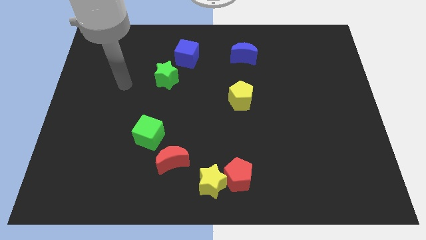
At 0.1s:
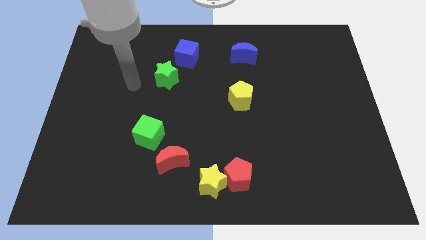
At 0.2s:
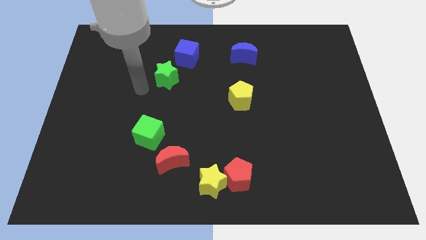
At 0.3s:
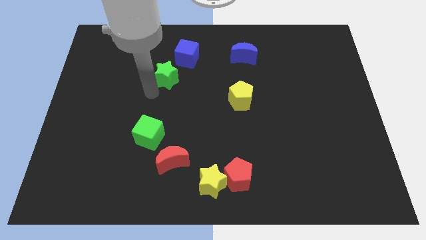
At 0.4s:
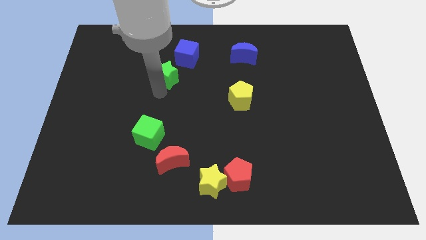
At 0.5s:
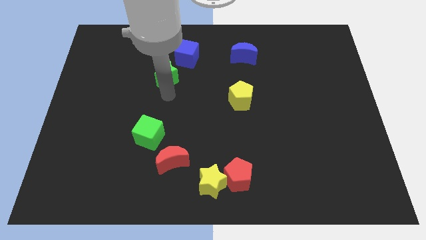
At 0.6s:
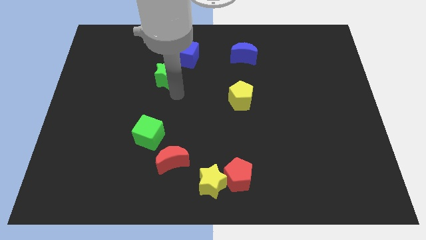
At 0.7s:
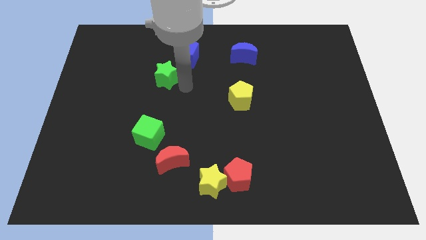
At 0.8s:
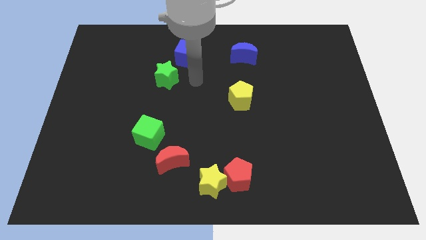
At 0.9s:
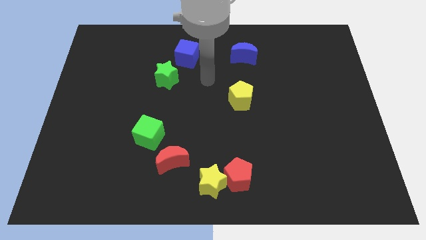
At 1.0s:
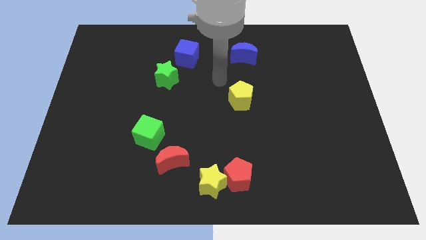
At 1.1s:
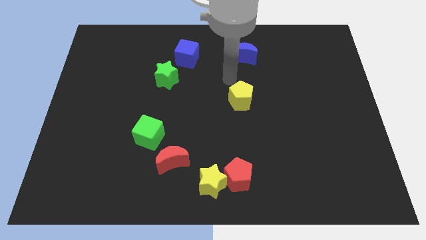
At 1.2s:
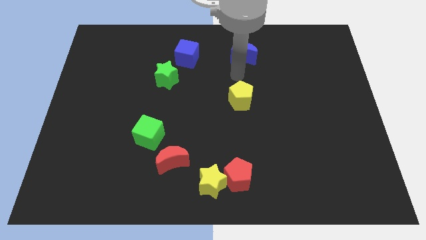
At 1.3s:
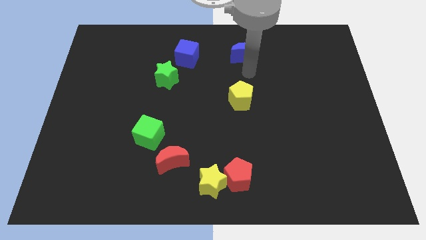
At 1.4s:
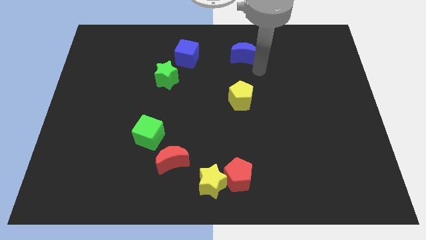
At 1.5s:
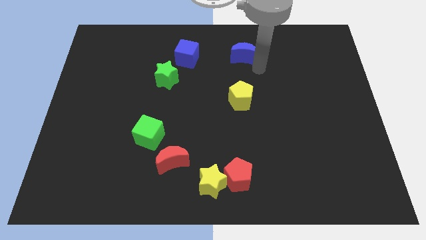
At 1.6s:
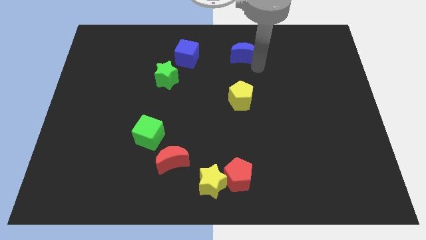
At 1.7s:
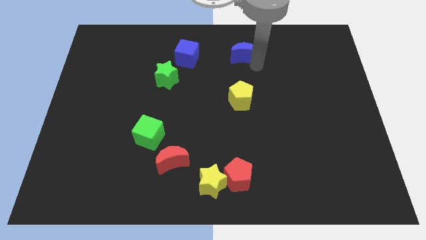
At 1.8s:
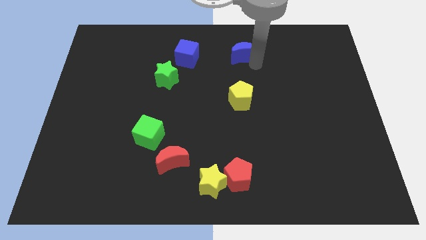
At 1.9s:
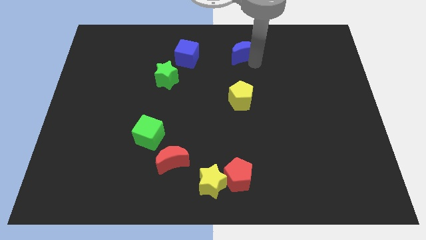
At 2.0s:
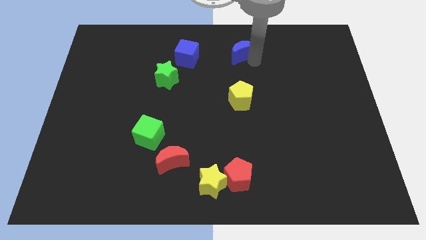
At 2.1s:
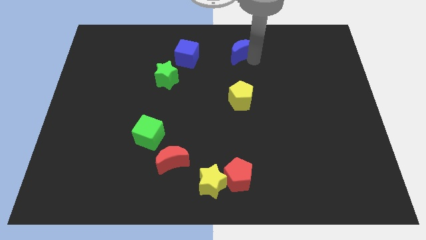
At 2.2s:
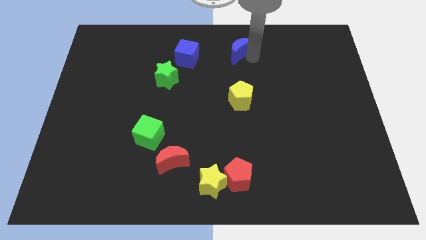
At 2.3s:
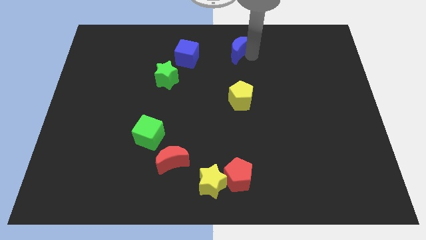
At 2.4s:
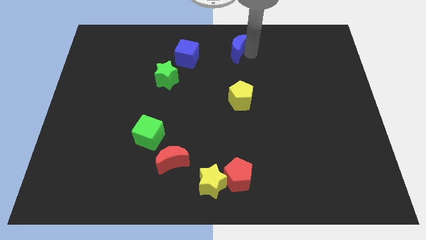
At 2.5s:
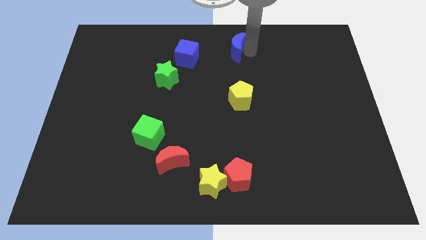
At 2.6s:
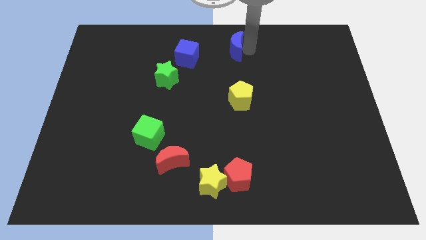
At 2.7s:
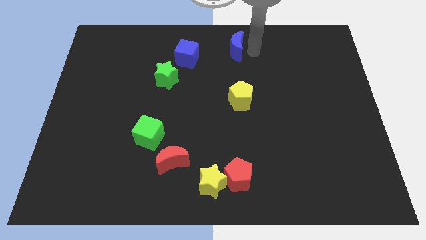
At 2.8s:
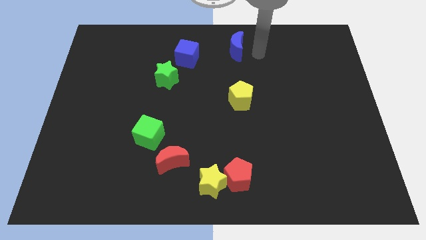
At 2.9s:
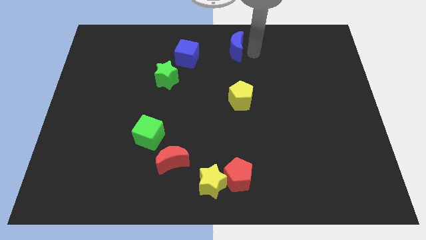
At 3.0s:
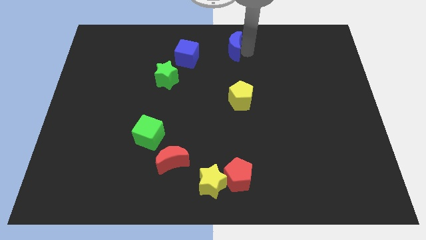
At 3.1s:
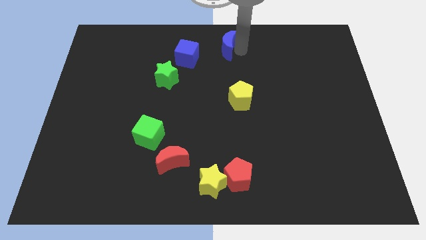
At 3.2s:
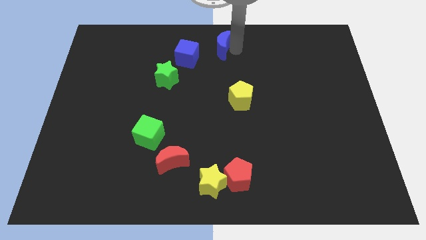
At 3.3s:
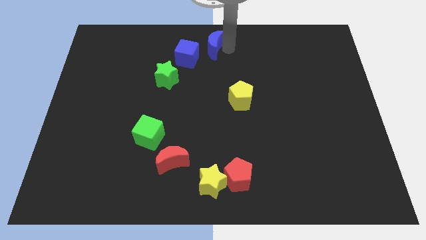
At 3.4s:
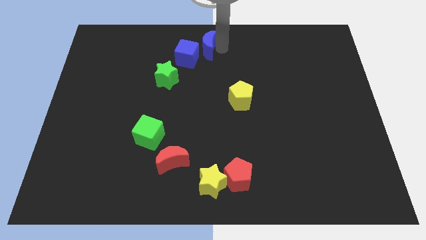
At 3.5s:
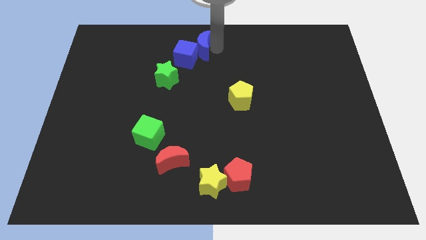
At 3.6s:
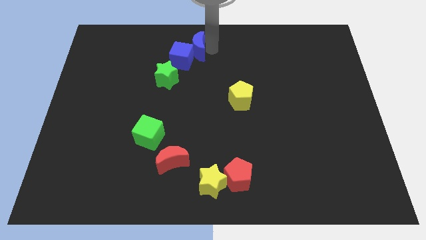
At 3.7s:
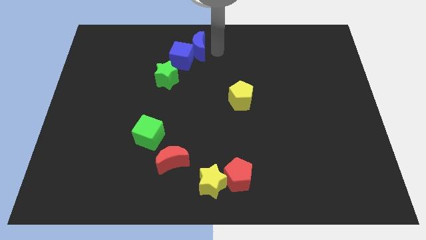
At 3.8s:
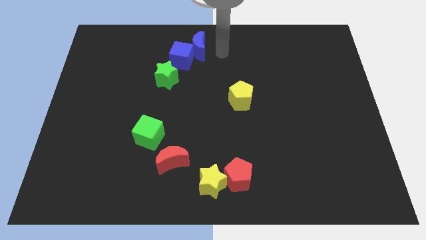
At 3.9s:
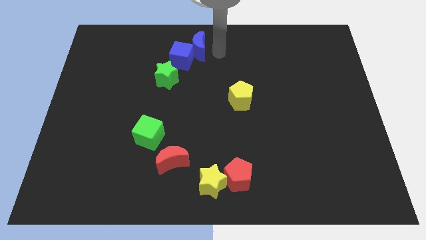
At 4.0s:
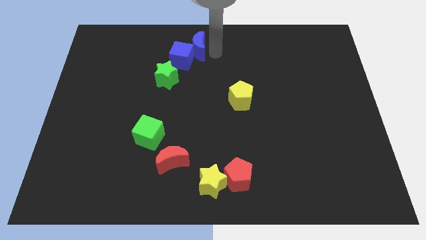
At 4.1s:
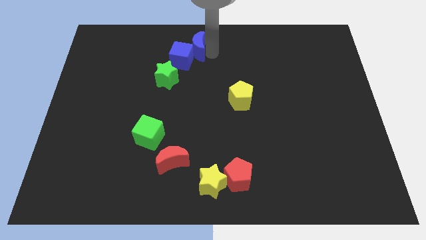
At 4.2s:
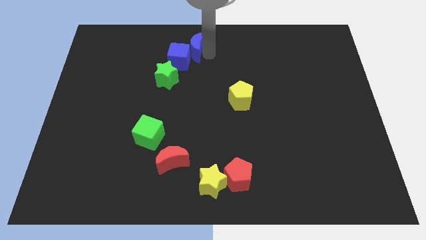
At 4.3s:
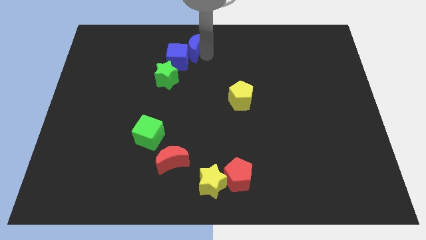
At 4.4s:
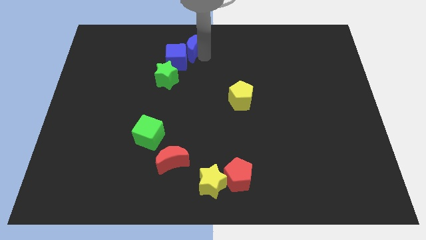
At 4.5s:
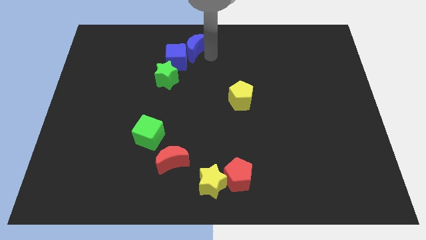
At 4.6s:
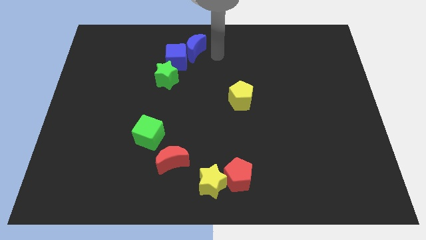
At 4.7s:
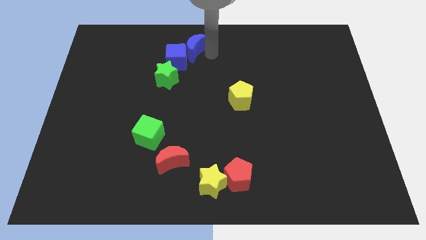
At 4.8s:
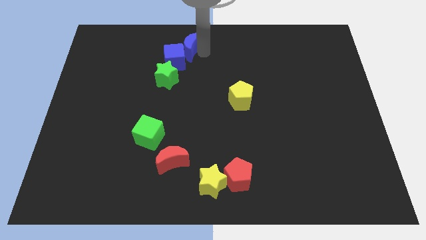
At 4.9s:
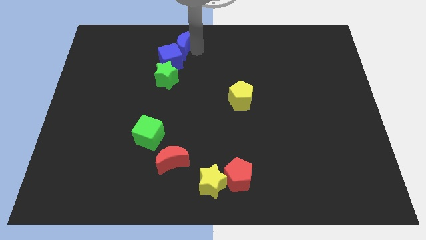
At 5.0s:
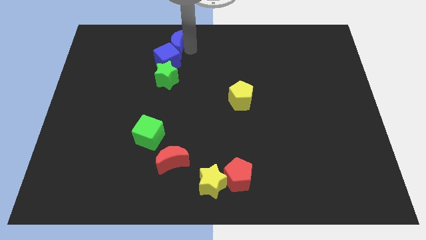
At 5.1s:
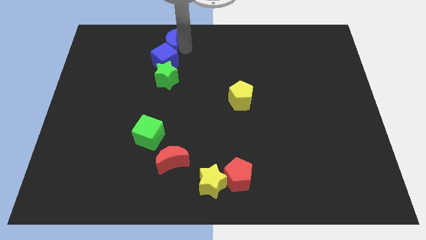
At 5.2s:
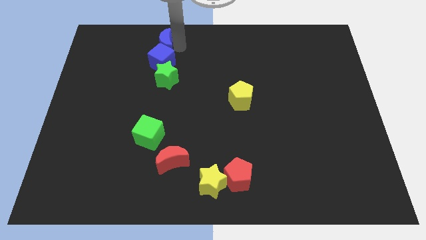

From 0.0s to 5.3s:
slide the blue moon to the left

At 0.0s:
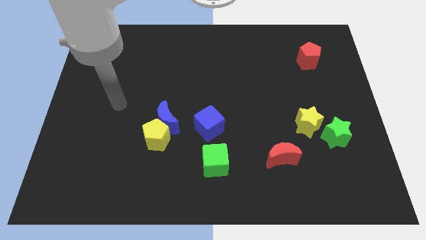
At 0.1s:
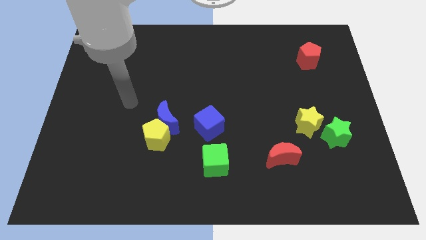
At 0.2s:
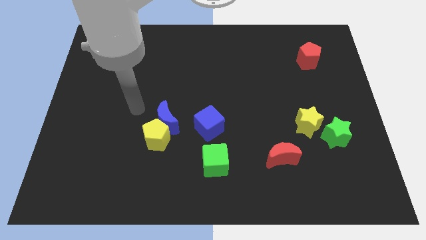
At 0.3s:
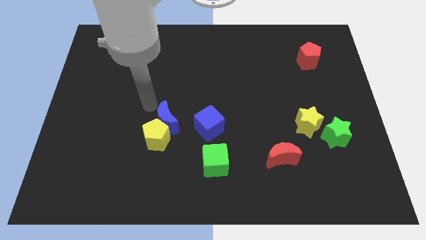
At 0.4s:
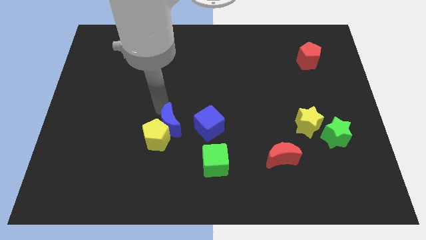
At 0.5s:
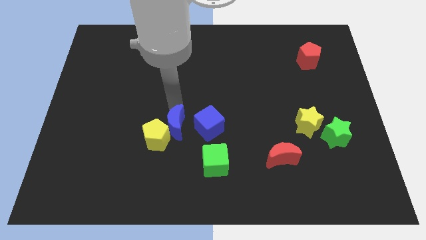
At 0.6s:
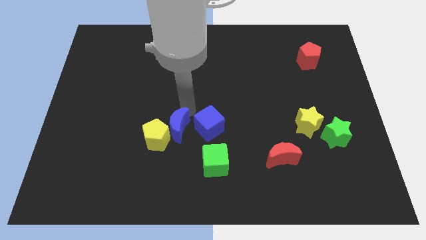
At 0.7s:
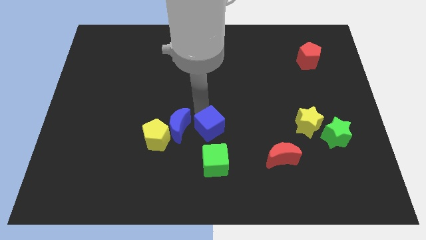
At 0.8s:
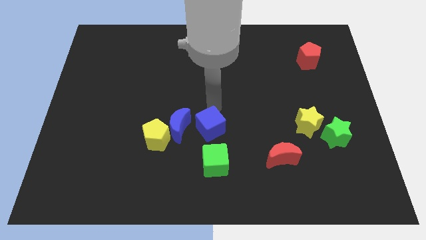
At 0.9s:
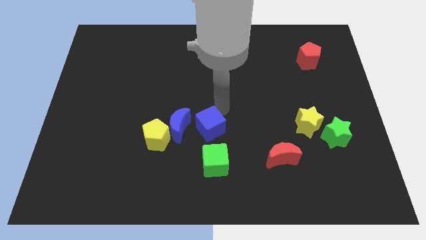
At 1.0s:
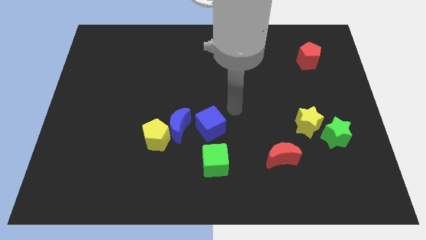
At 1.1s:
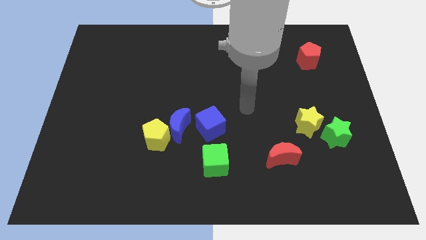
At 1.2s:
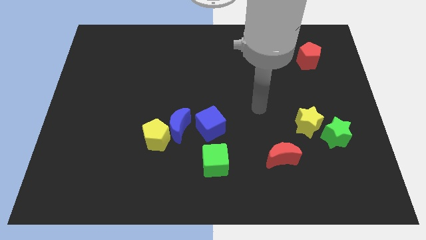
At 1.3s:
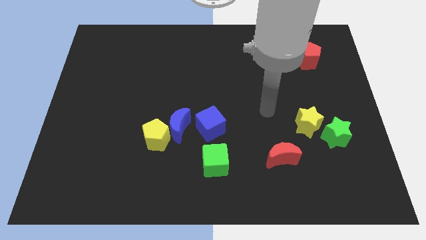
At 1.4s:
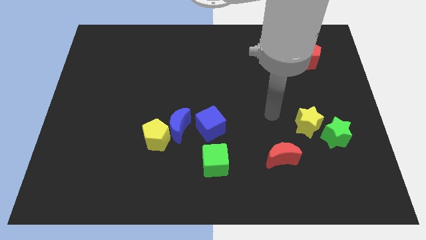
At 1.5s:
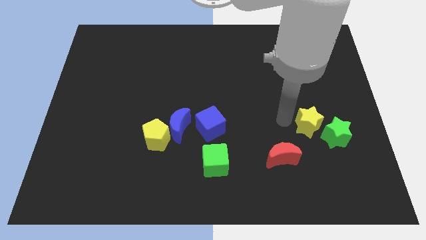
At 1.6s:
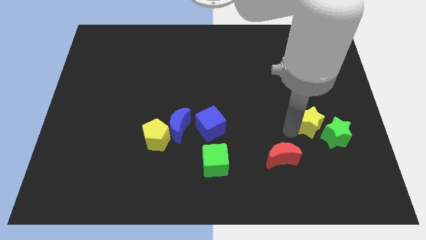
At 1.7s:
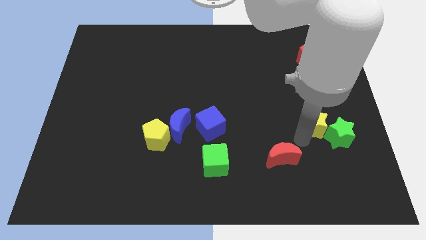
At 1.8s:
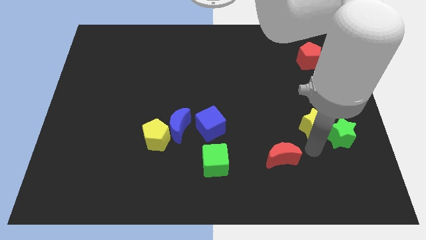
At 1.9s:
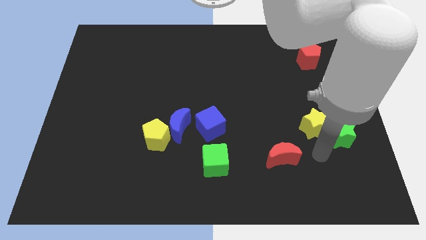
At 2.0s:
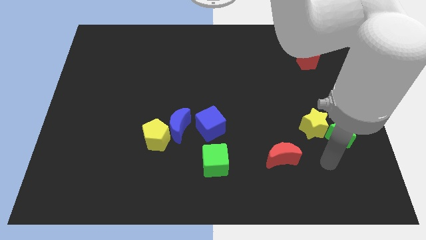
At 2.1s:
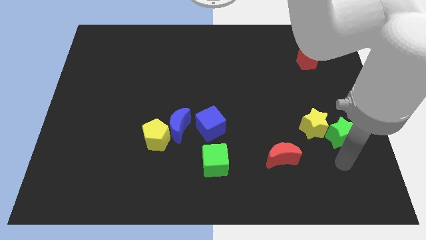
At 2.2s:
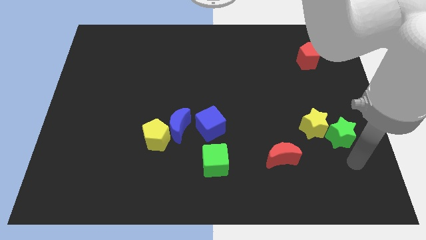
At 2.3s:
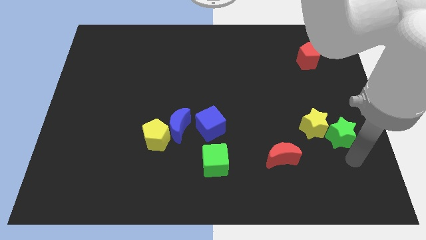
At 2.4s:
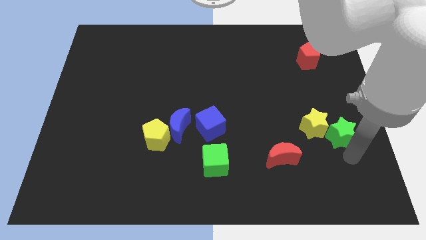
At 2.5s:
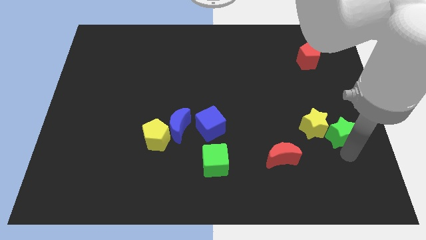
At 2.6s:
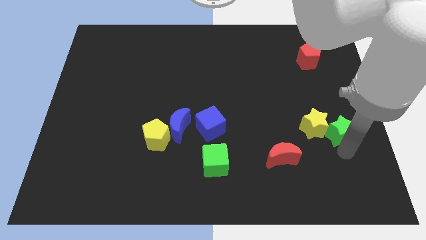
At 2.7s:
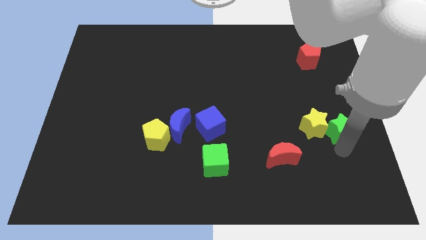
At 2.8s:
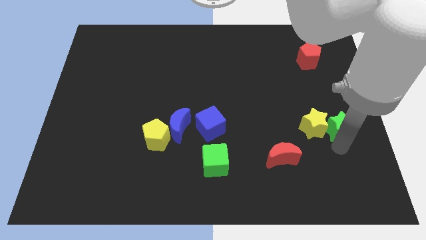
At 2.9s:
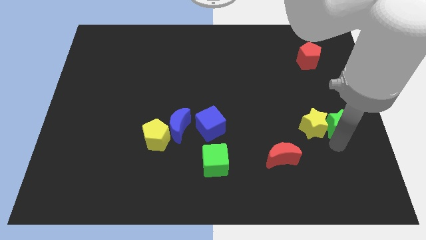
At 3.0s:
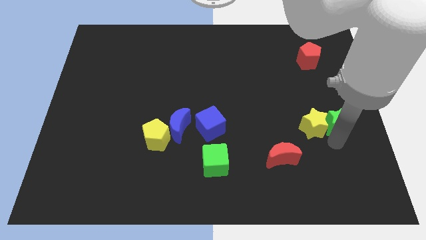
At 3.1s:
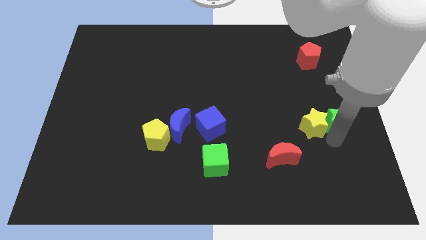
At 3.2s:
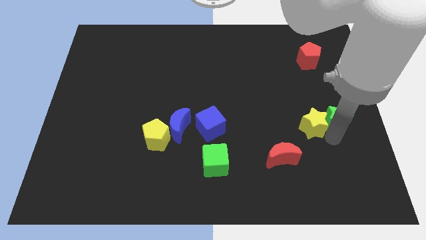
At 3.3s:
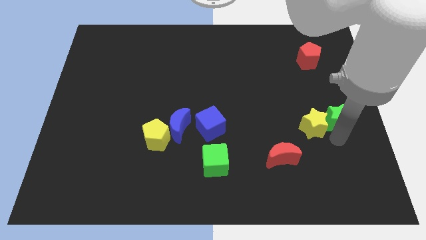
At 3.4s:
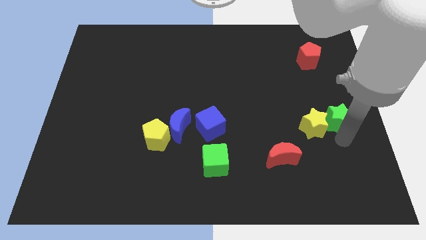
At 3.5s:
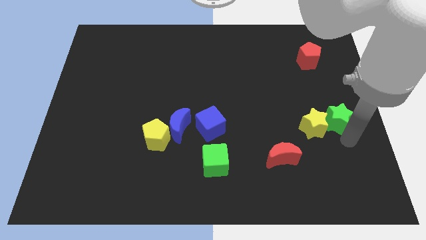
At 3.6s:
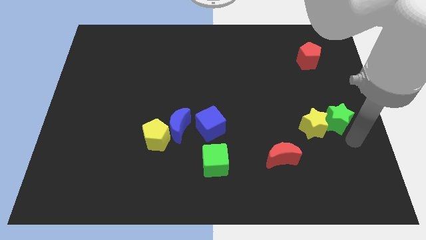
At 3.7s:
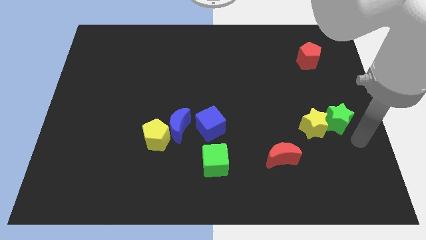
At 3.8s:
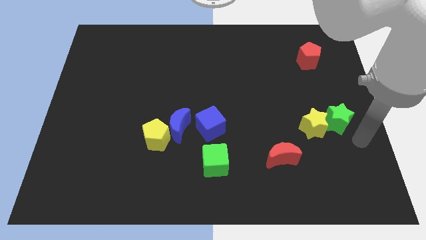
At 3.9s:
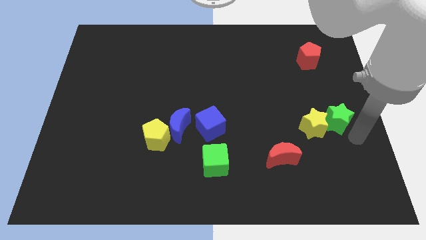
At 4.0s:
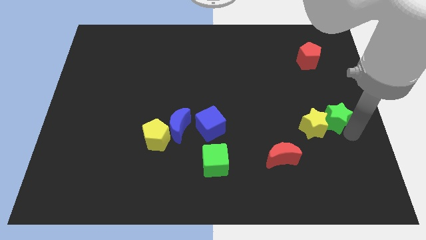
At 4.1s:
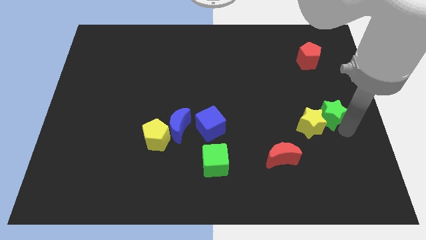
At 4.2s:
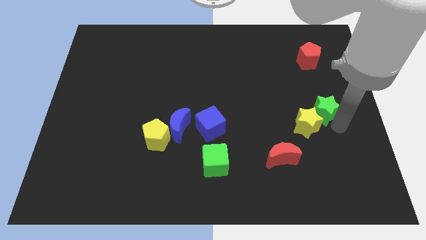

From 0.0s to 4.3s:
slightly push the green star up
